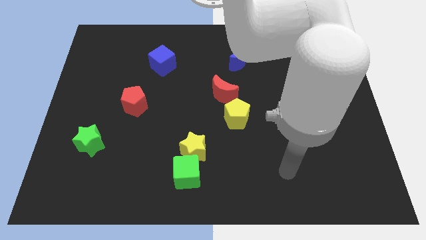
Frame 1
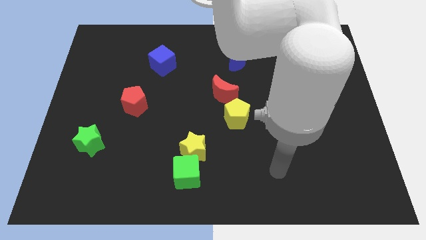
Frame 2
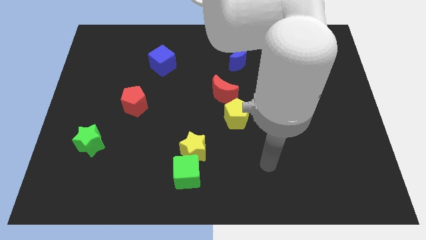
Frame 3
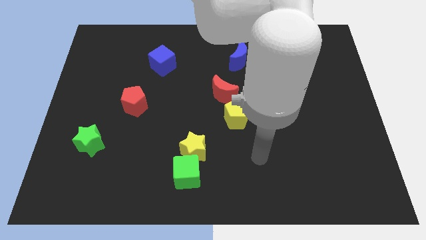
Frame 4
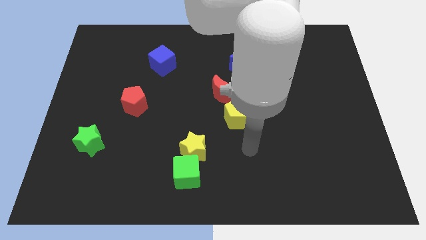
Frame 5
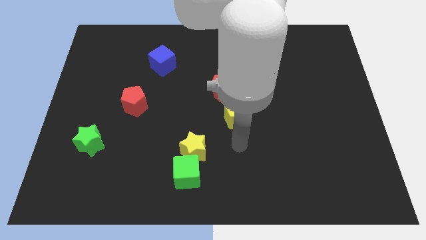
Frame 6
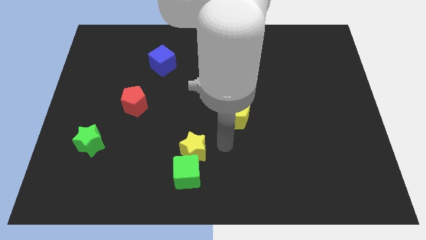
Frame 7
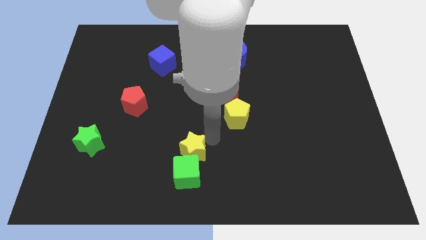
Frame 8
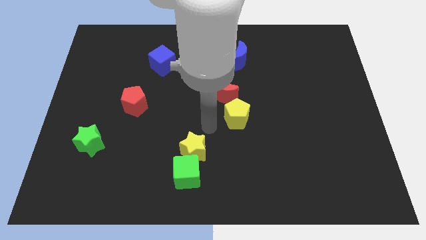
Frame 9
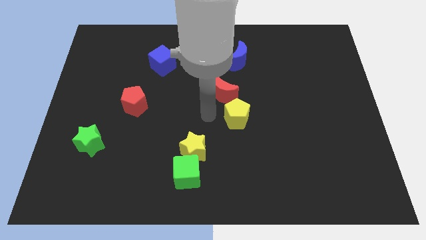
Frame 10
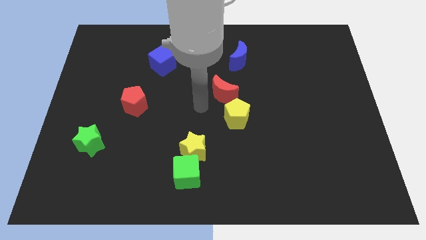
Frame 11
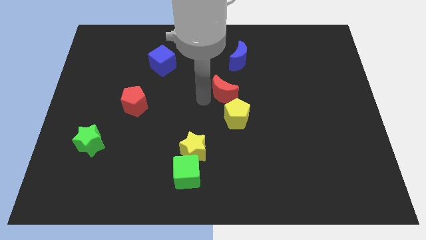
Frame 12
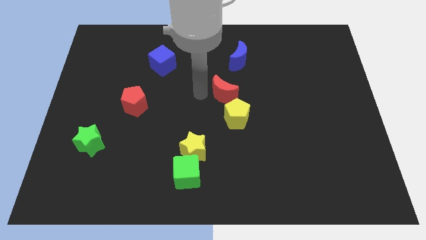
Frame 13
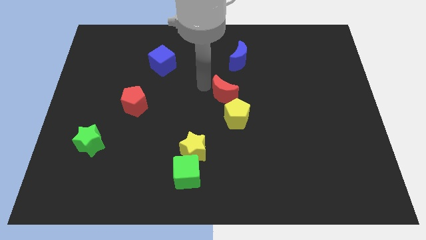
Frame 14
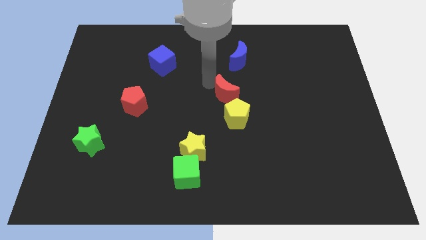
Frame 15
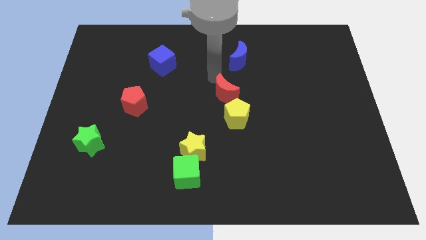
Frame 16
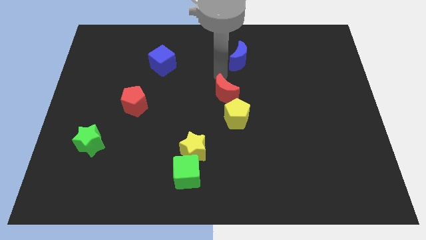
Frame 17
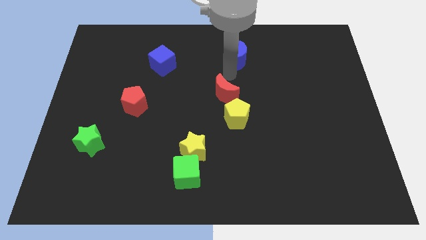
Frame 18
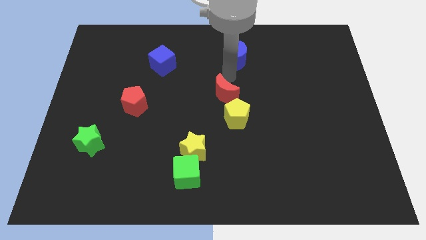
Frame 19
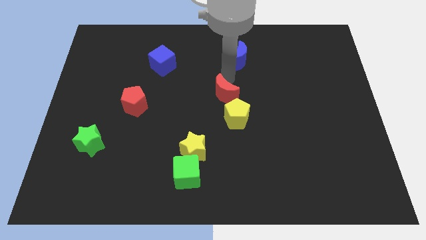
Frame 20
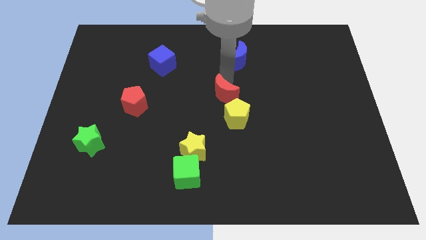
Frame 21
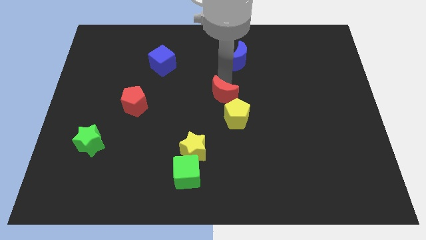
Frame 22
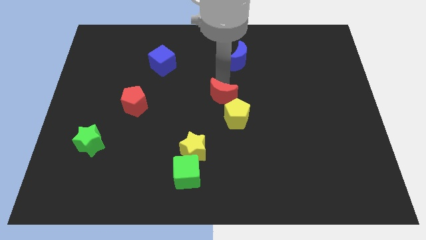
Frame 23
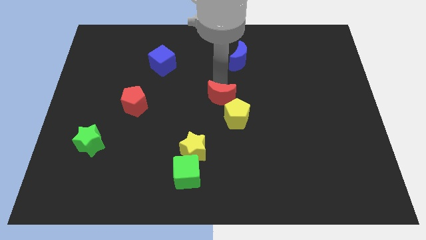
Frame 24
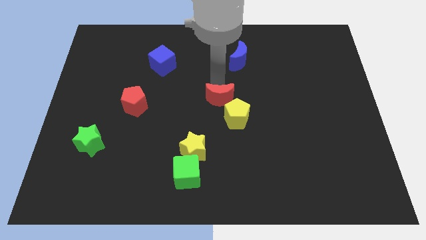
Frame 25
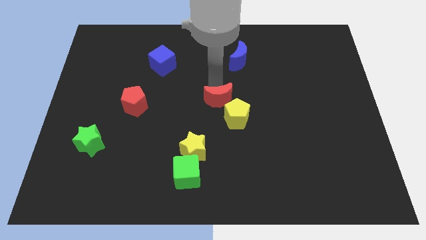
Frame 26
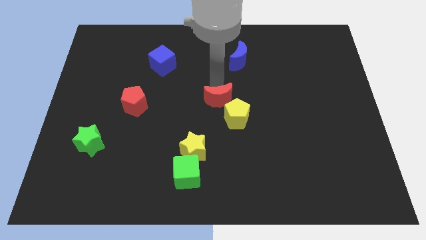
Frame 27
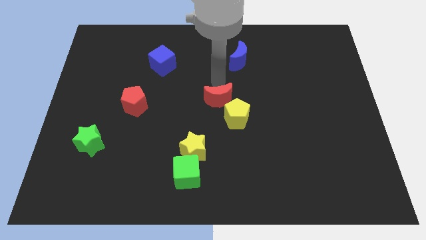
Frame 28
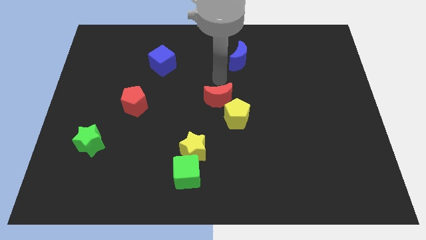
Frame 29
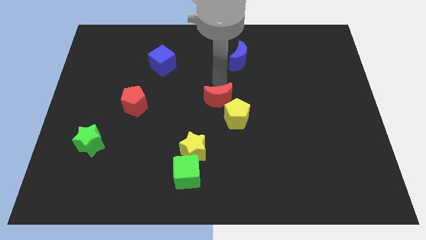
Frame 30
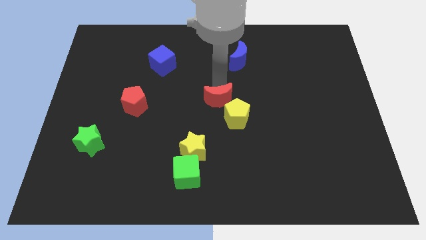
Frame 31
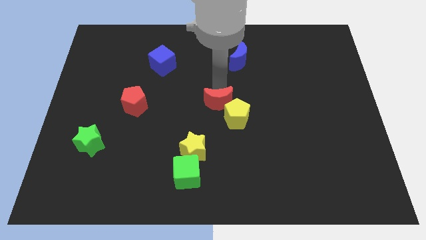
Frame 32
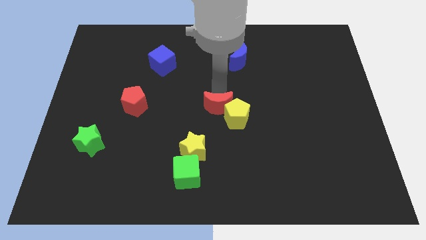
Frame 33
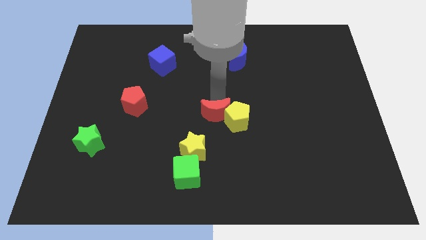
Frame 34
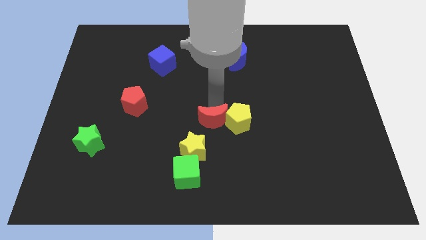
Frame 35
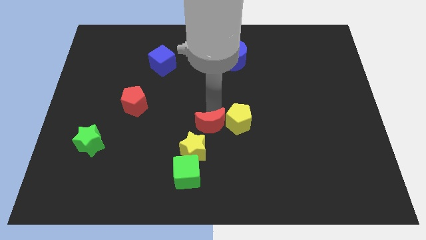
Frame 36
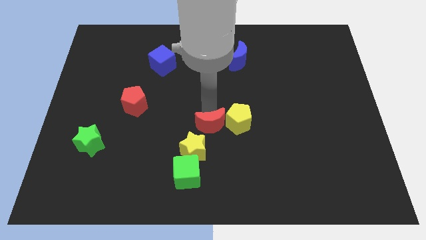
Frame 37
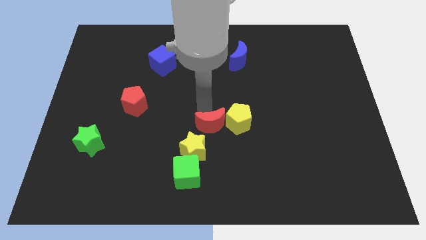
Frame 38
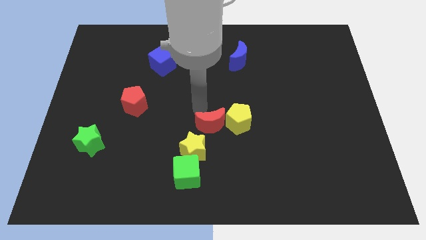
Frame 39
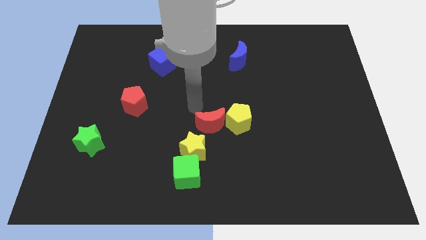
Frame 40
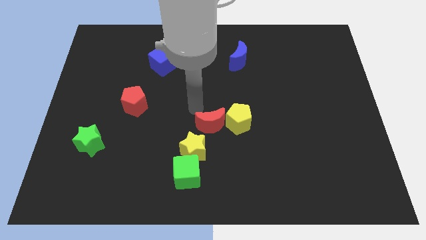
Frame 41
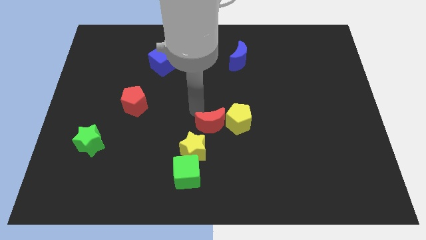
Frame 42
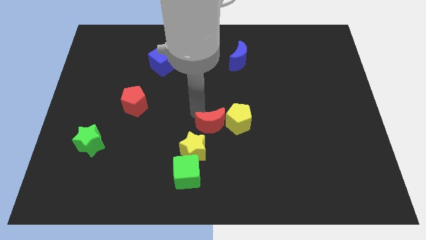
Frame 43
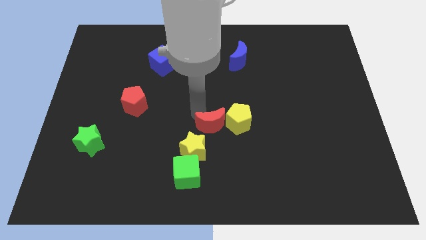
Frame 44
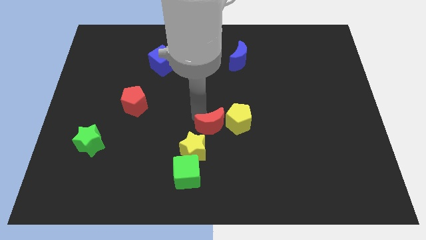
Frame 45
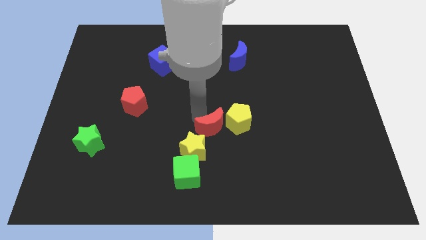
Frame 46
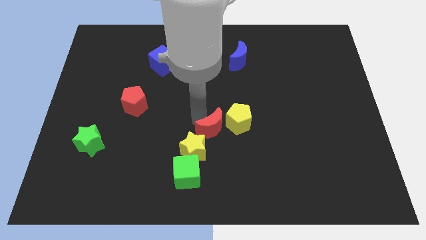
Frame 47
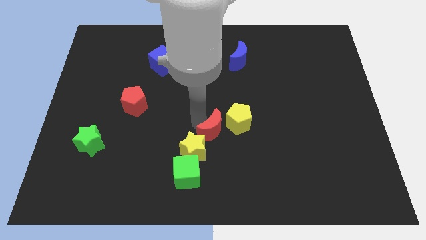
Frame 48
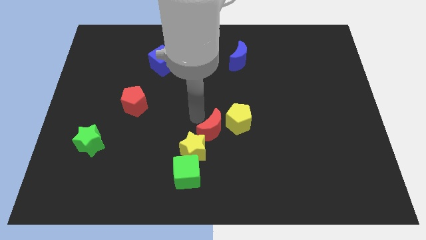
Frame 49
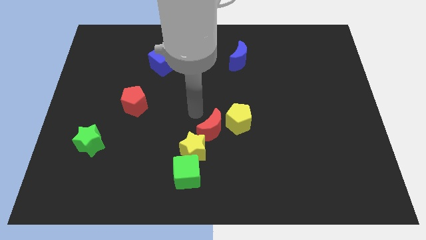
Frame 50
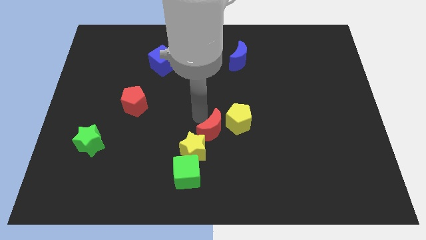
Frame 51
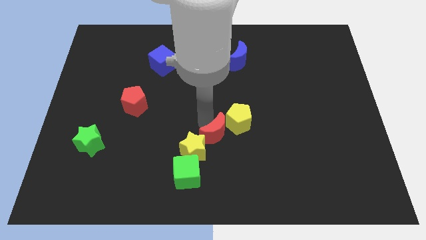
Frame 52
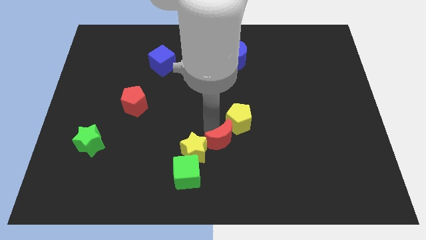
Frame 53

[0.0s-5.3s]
move the red moon to the bottom side of the yellow pentagon

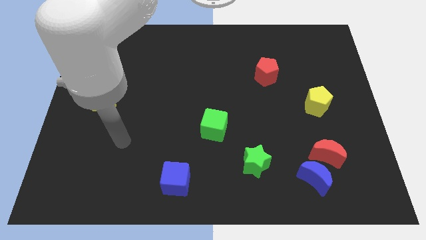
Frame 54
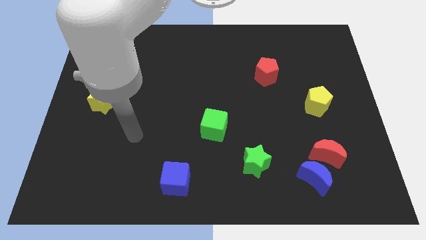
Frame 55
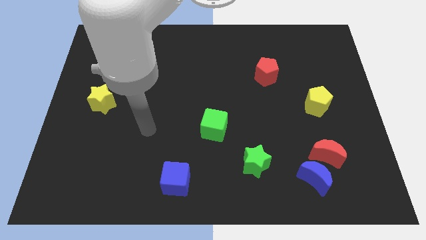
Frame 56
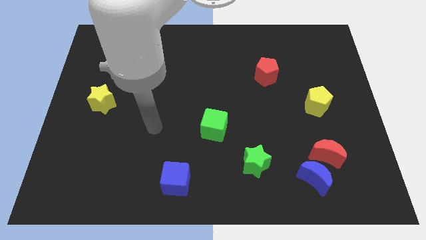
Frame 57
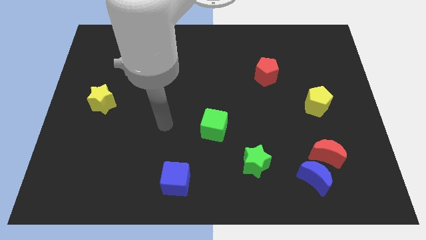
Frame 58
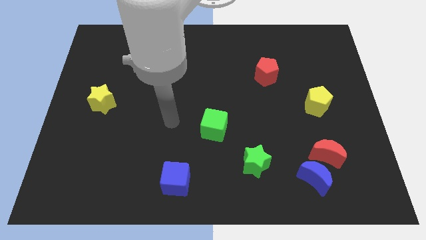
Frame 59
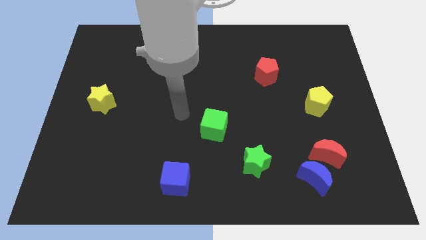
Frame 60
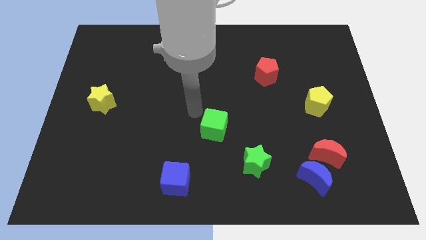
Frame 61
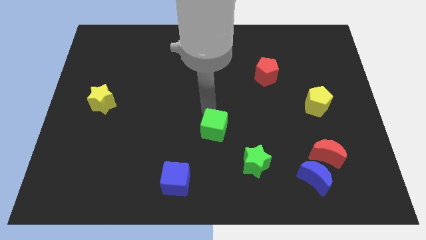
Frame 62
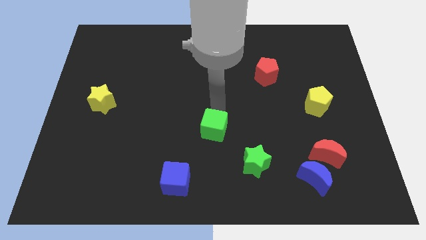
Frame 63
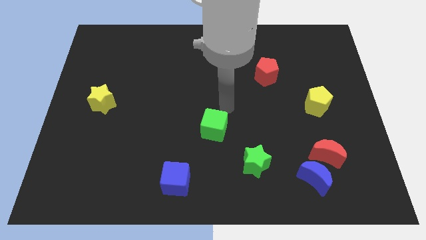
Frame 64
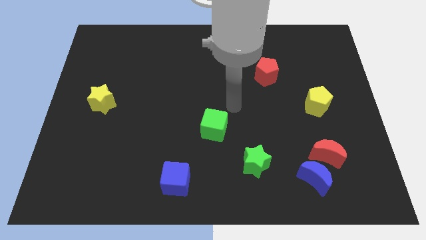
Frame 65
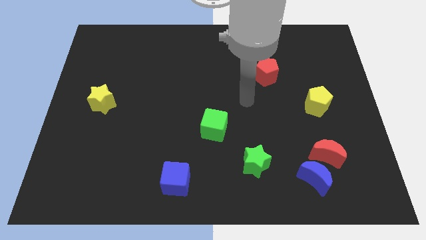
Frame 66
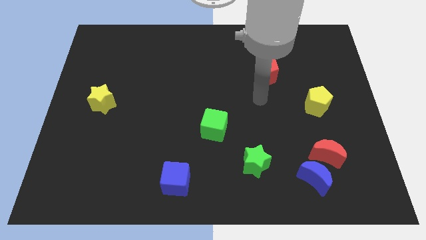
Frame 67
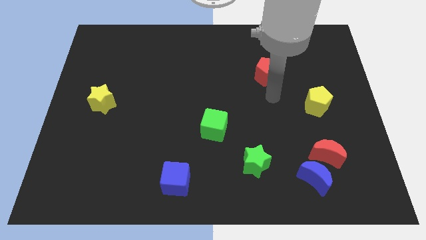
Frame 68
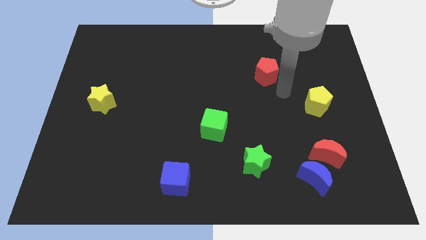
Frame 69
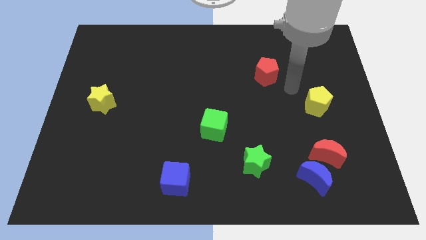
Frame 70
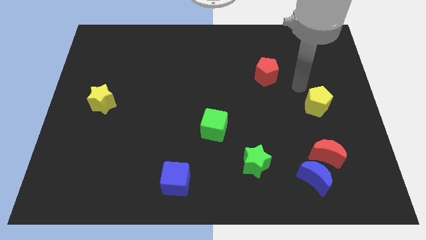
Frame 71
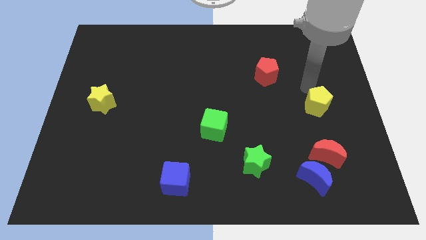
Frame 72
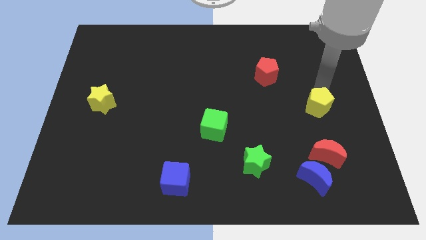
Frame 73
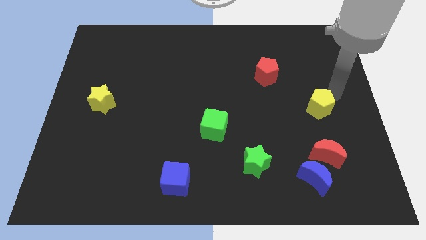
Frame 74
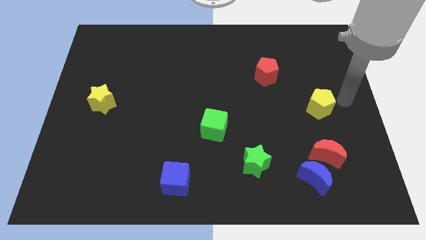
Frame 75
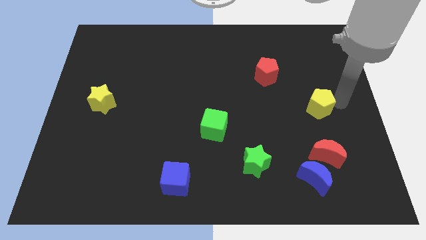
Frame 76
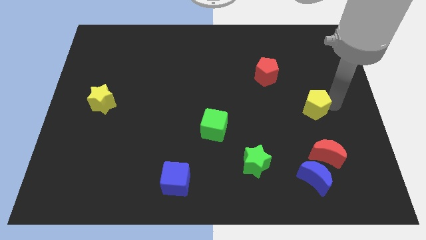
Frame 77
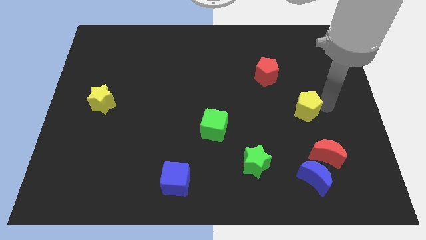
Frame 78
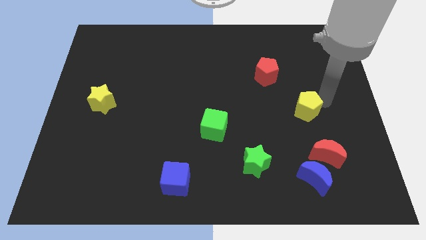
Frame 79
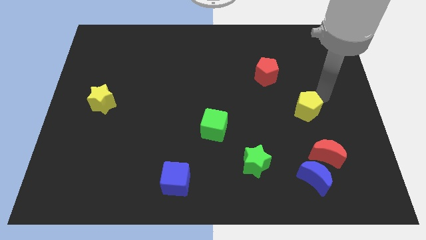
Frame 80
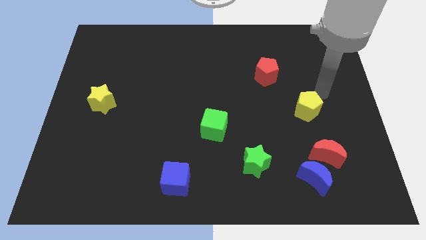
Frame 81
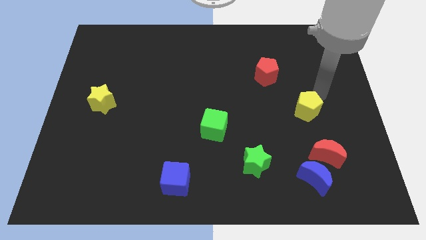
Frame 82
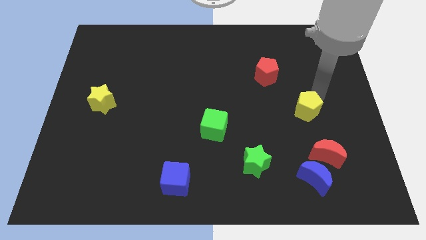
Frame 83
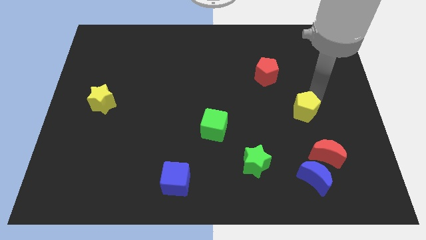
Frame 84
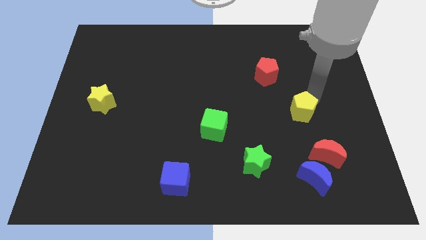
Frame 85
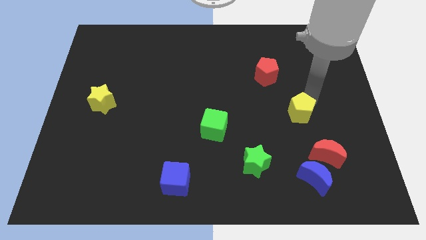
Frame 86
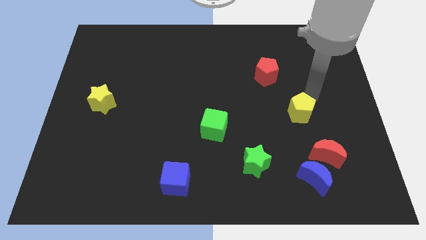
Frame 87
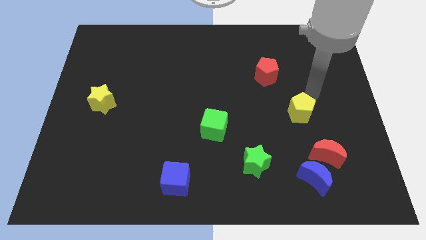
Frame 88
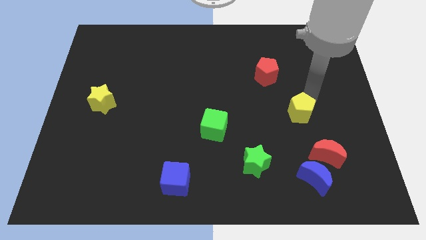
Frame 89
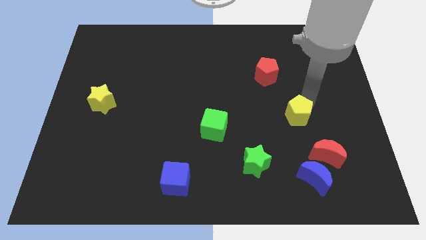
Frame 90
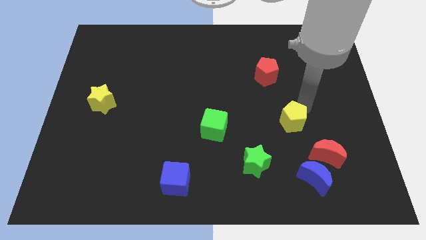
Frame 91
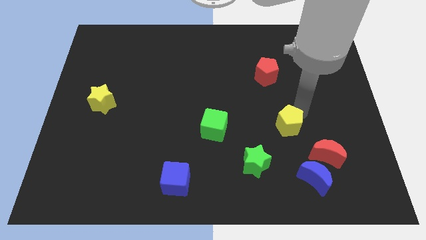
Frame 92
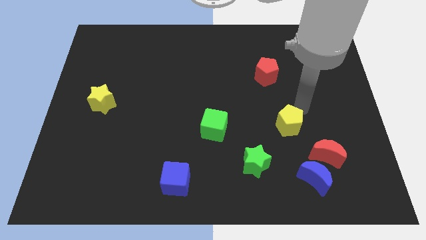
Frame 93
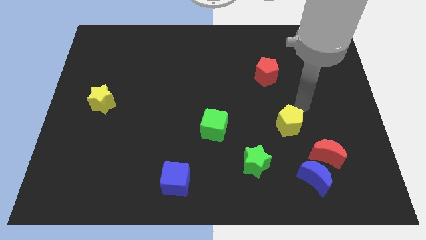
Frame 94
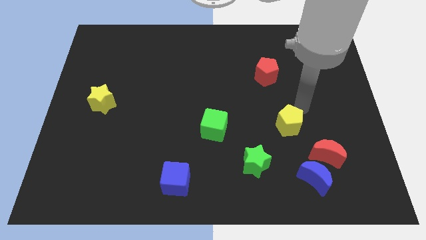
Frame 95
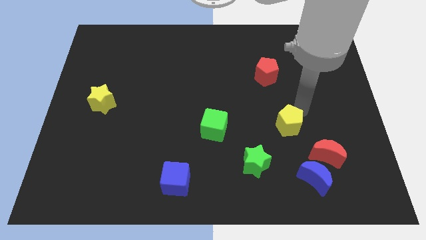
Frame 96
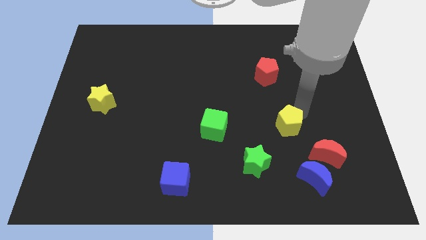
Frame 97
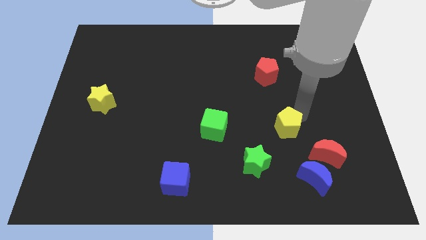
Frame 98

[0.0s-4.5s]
slide the yellow pentagon diagonally up and to the right of the green star
